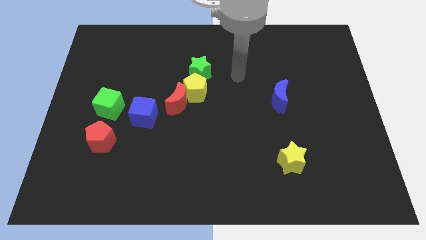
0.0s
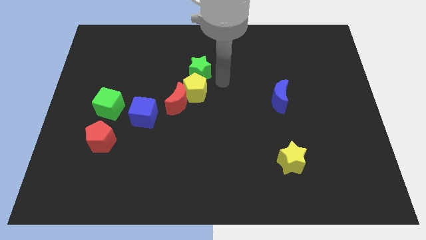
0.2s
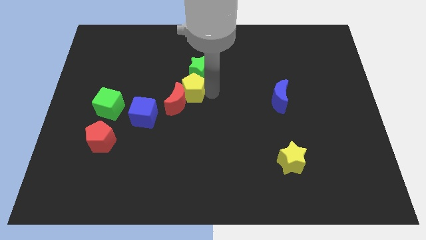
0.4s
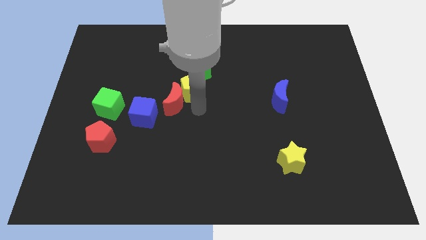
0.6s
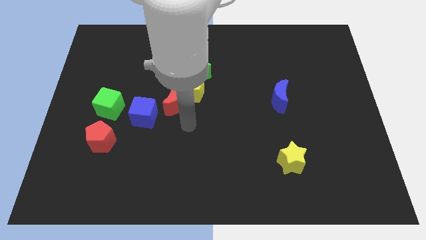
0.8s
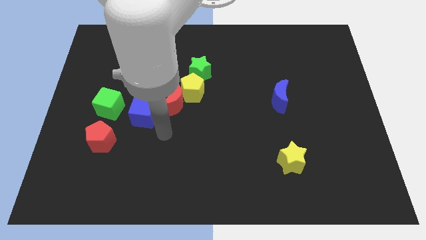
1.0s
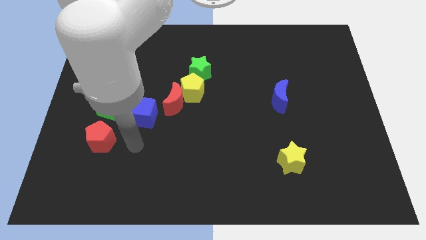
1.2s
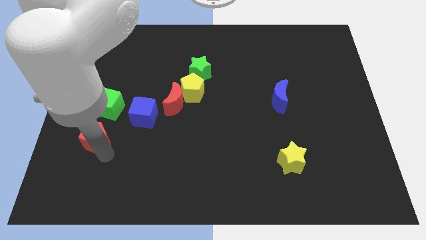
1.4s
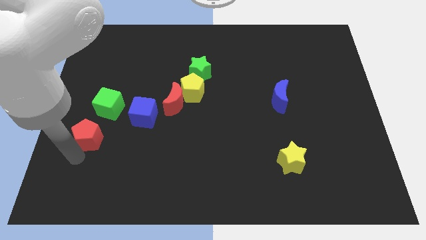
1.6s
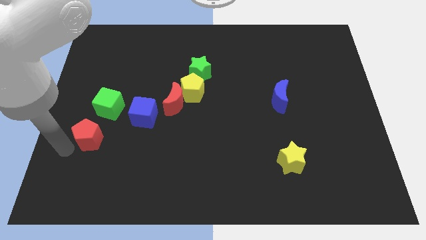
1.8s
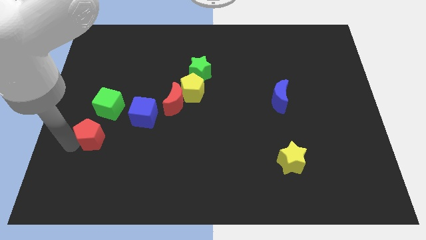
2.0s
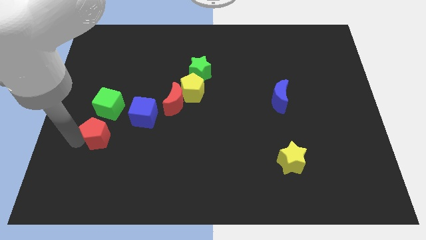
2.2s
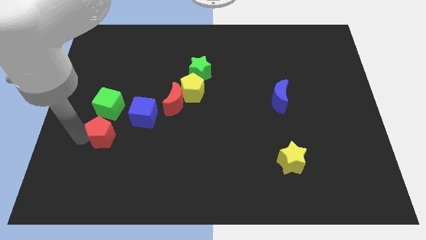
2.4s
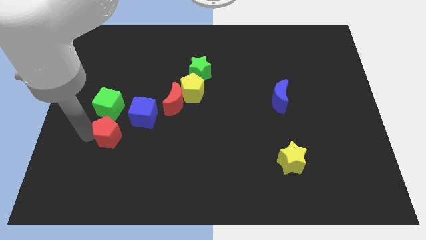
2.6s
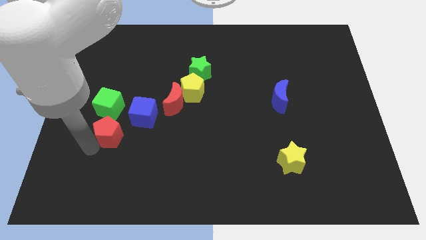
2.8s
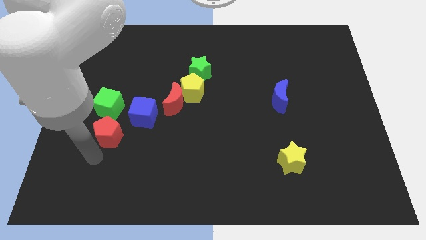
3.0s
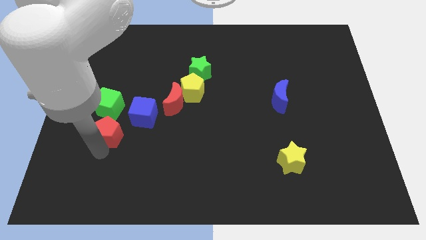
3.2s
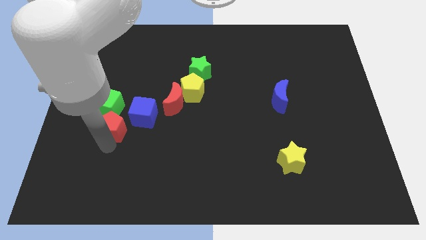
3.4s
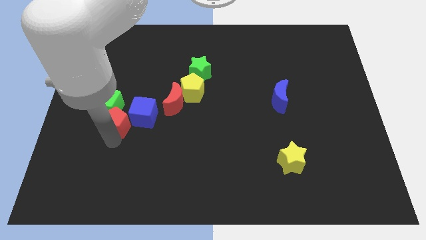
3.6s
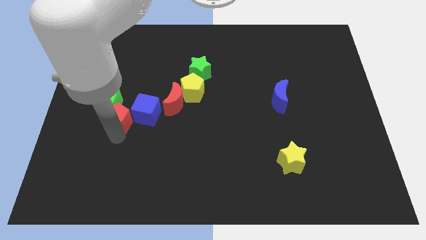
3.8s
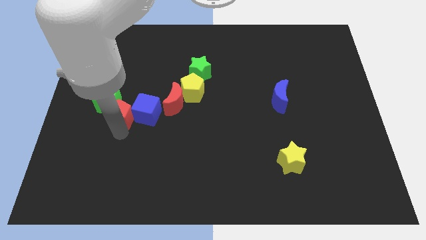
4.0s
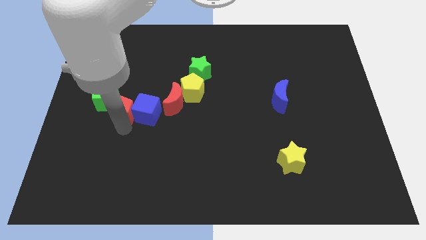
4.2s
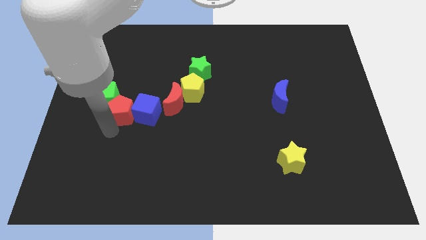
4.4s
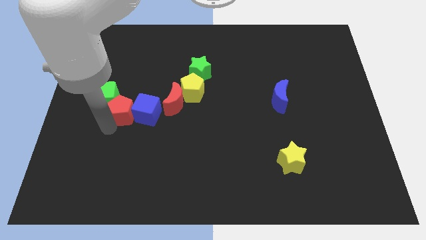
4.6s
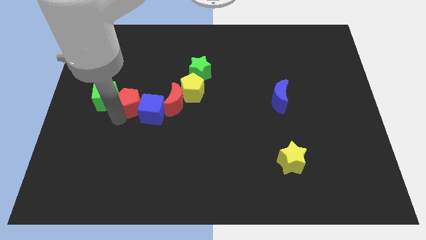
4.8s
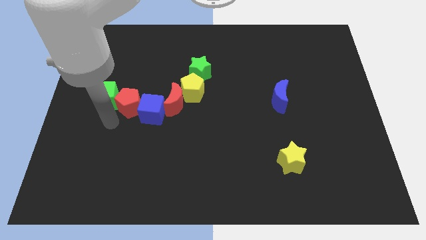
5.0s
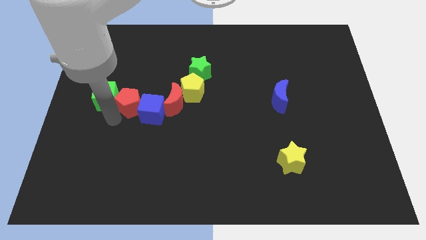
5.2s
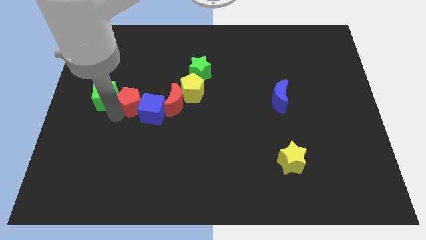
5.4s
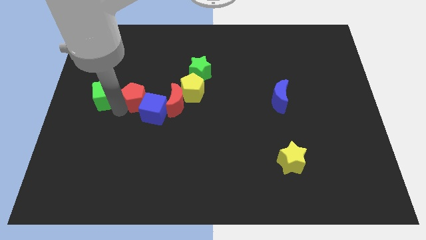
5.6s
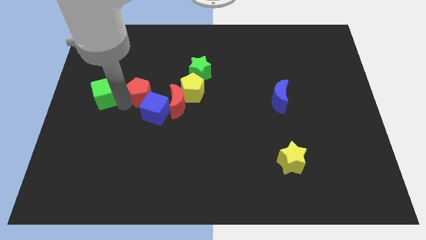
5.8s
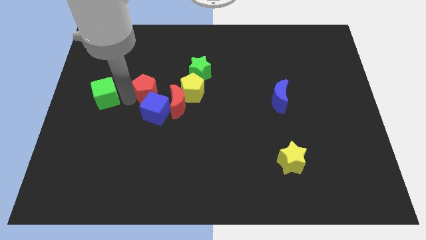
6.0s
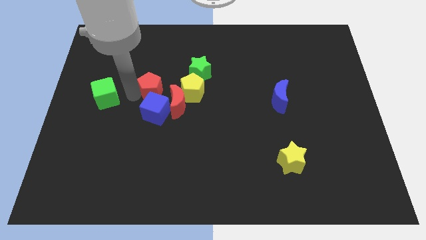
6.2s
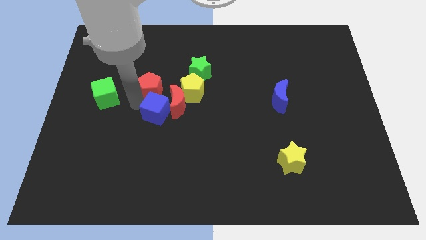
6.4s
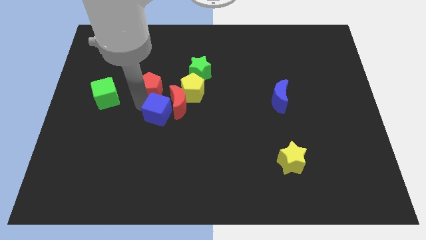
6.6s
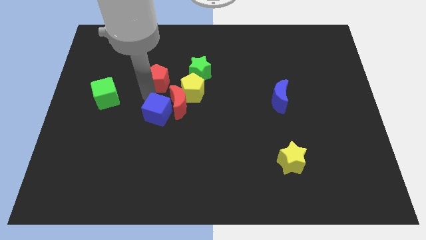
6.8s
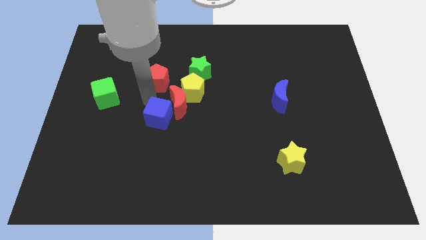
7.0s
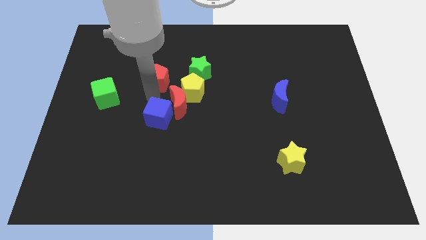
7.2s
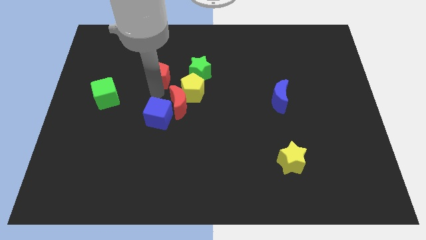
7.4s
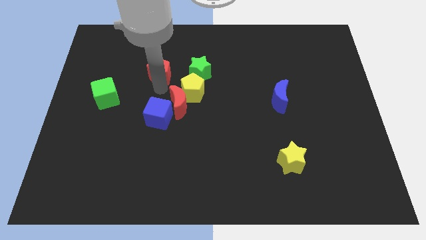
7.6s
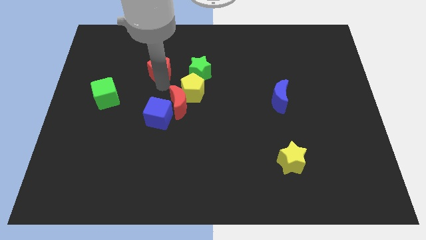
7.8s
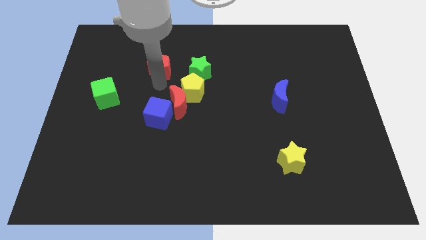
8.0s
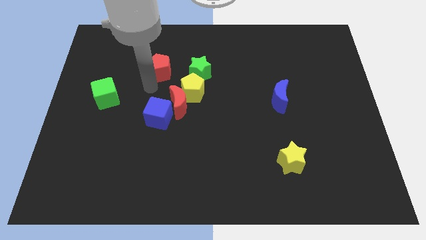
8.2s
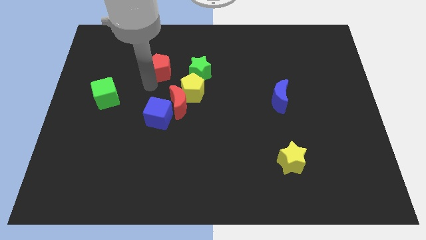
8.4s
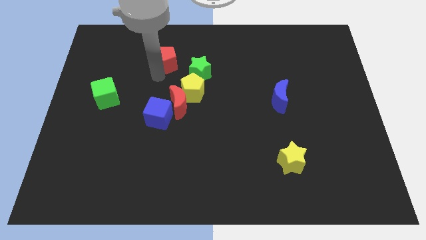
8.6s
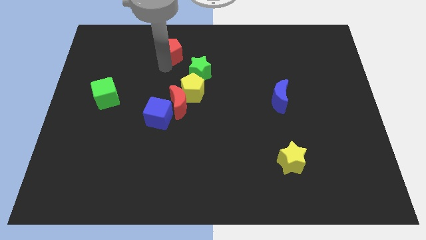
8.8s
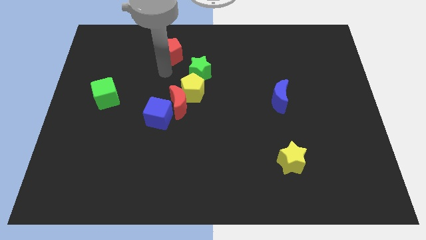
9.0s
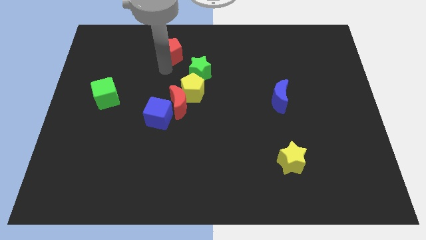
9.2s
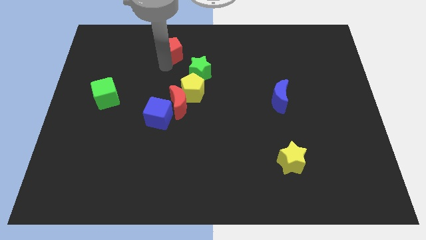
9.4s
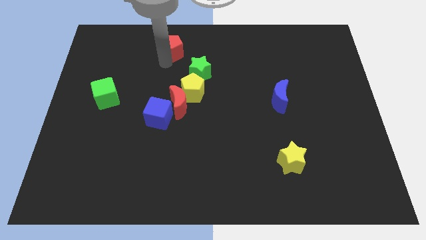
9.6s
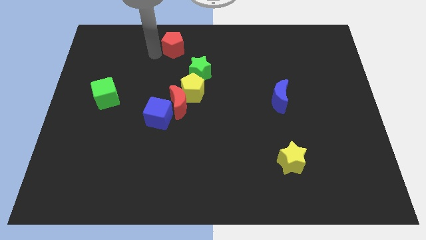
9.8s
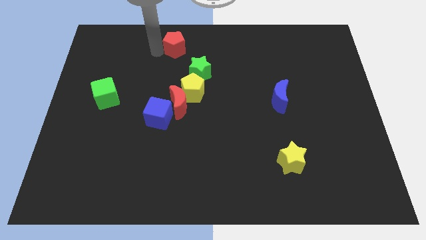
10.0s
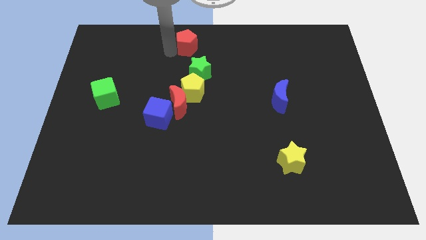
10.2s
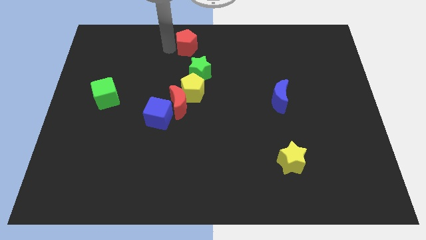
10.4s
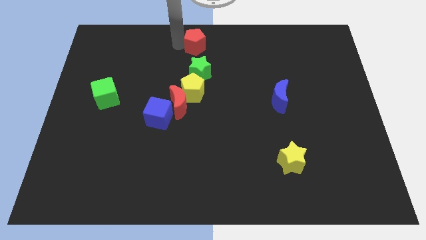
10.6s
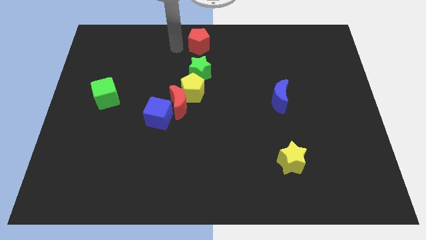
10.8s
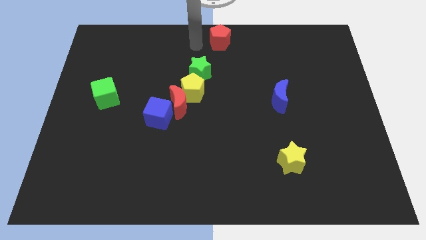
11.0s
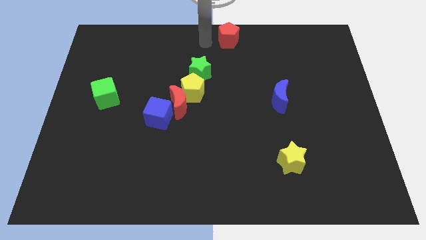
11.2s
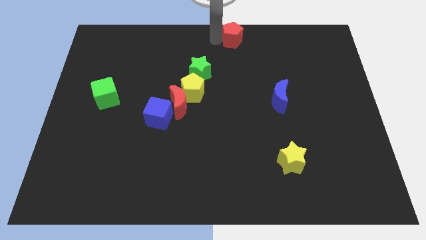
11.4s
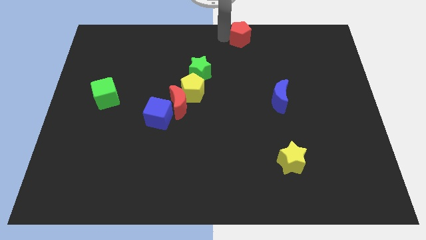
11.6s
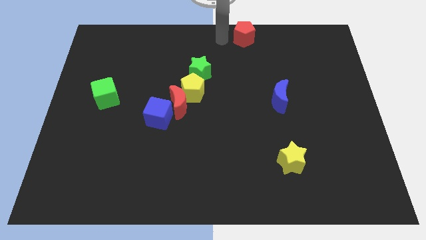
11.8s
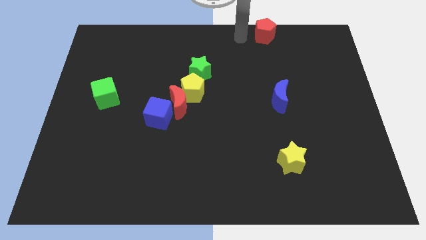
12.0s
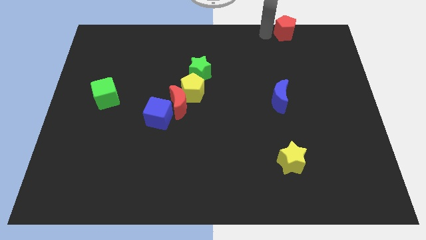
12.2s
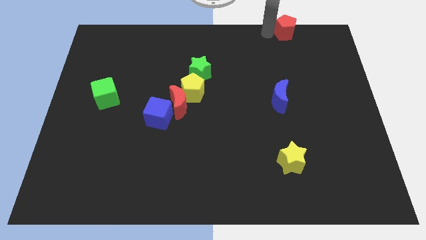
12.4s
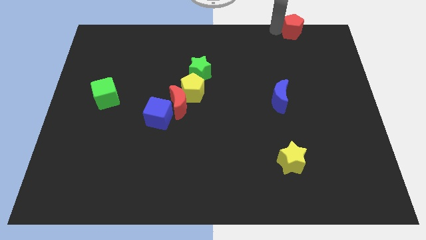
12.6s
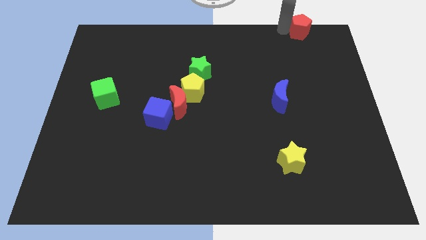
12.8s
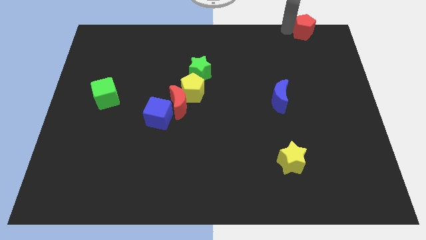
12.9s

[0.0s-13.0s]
push the red pentagon to the top right of the board
